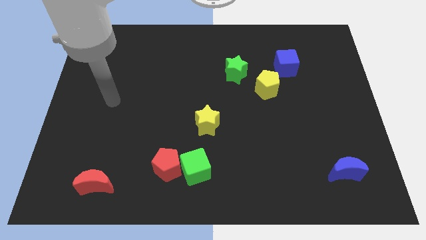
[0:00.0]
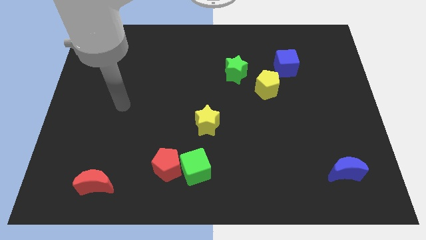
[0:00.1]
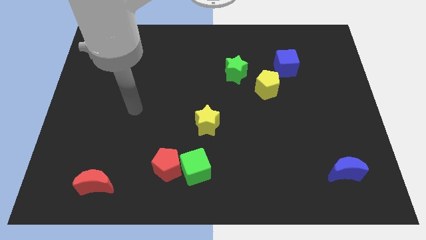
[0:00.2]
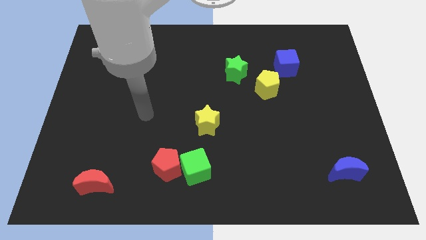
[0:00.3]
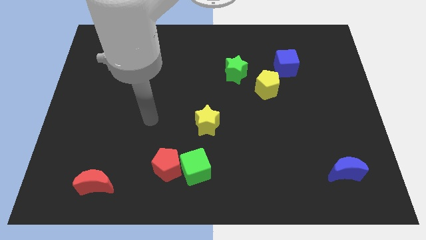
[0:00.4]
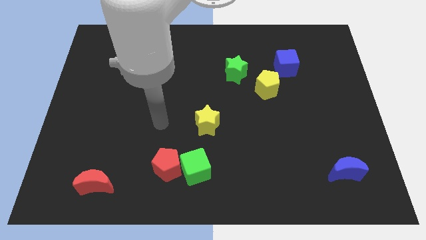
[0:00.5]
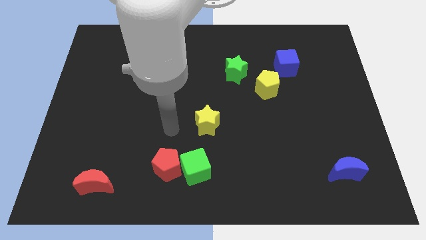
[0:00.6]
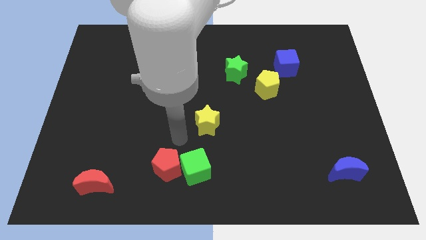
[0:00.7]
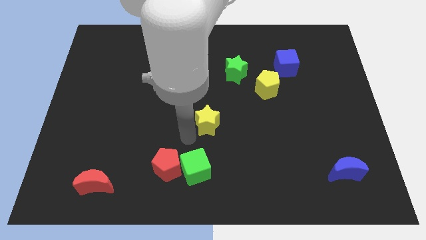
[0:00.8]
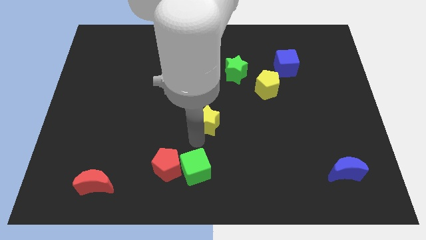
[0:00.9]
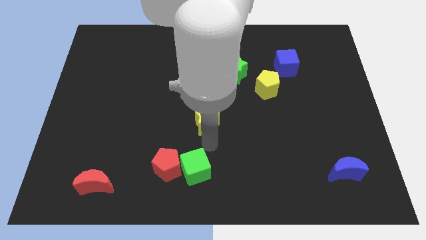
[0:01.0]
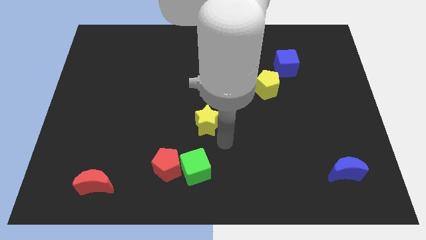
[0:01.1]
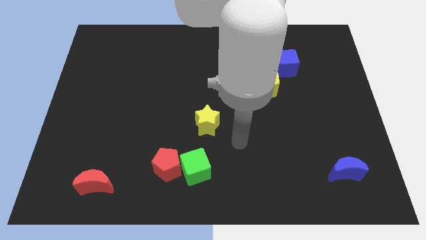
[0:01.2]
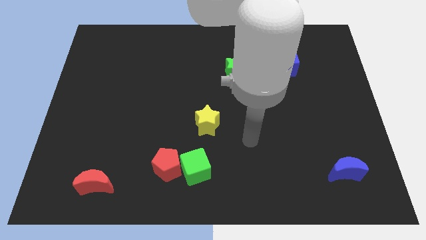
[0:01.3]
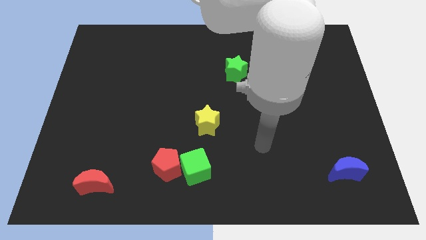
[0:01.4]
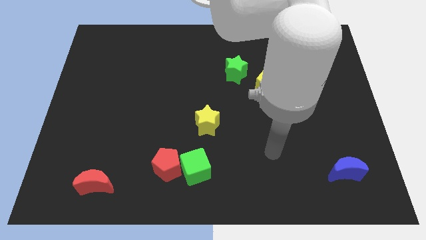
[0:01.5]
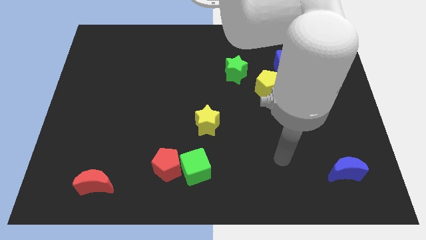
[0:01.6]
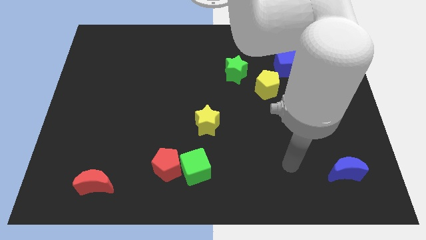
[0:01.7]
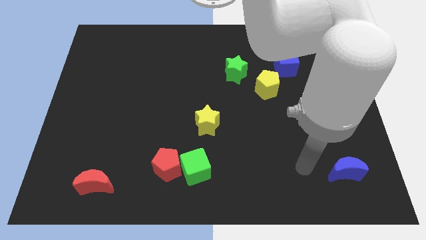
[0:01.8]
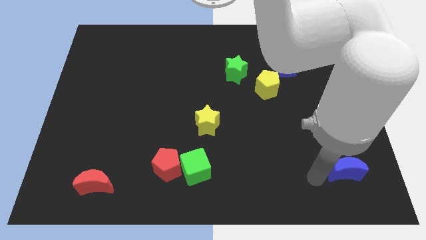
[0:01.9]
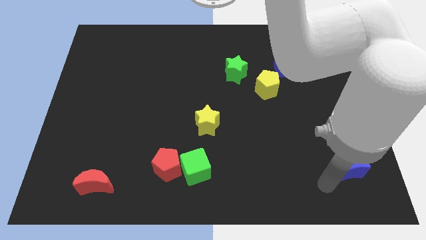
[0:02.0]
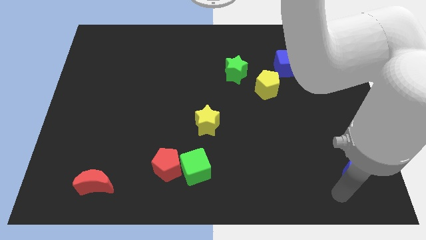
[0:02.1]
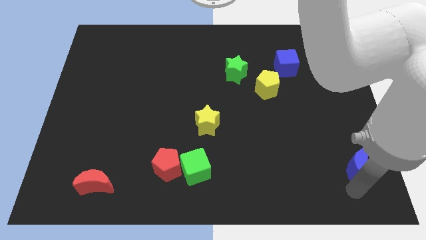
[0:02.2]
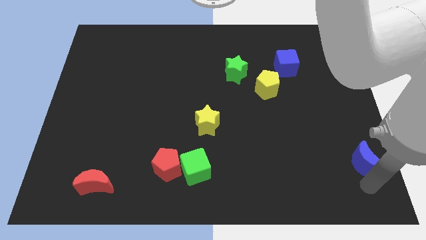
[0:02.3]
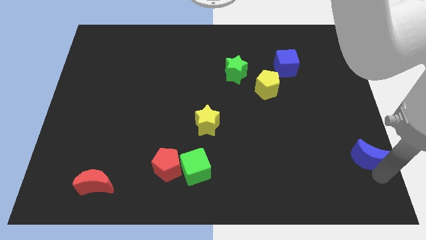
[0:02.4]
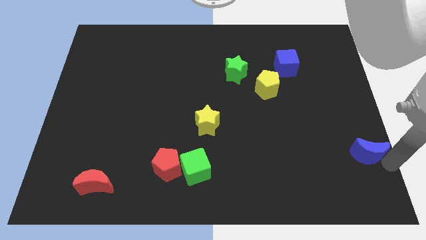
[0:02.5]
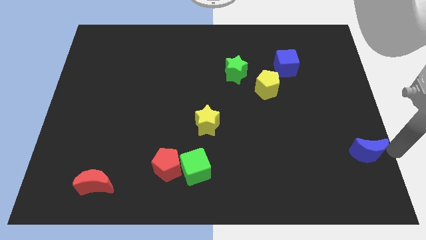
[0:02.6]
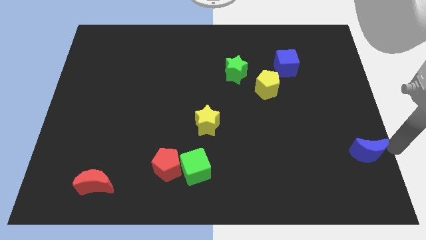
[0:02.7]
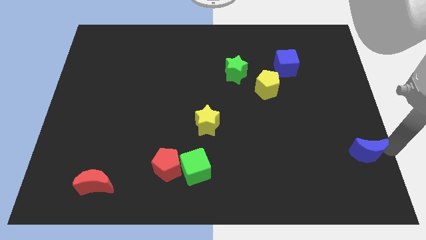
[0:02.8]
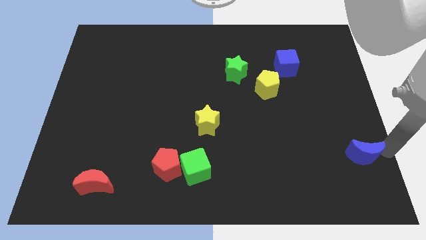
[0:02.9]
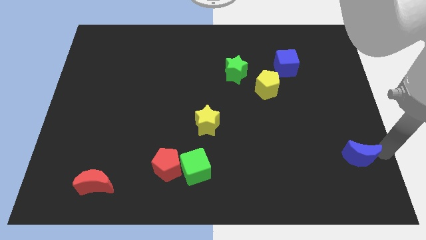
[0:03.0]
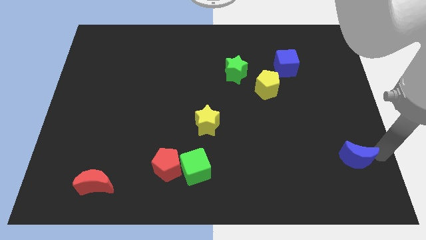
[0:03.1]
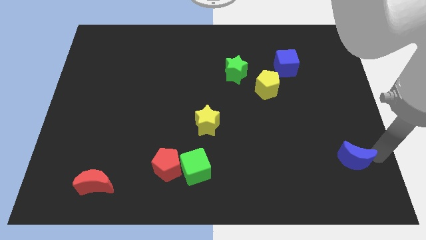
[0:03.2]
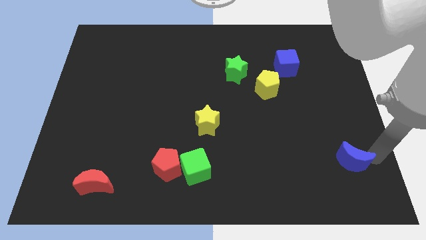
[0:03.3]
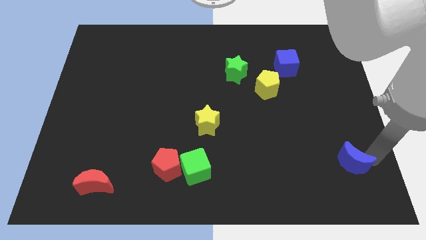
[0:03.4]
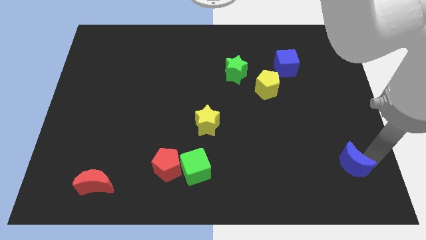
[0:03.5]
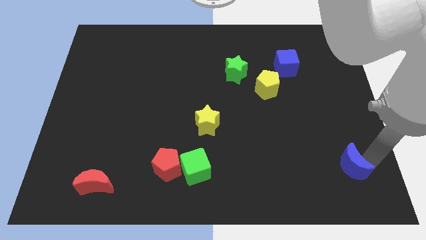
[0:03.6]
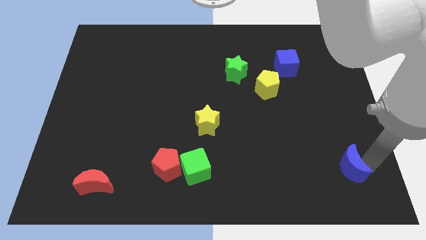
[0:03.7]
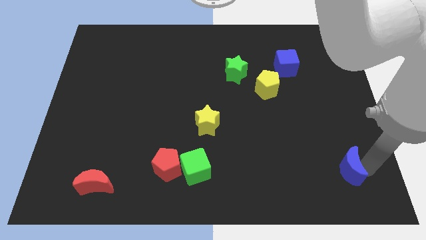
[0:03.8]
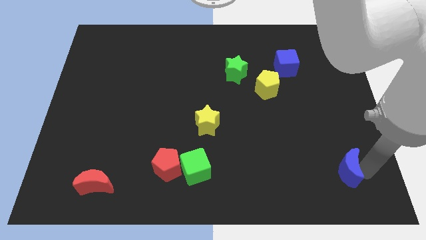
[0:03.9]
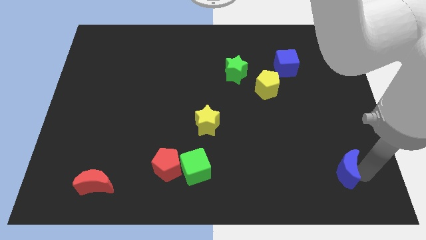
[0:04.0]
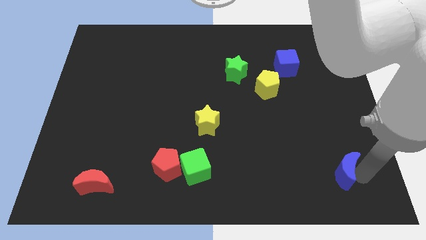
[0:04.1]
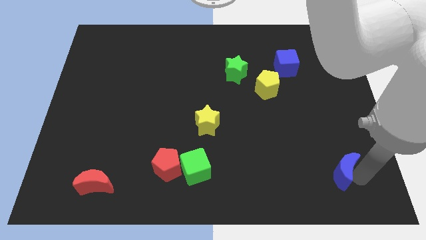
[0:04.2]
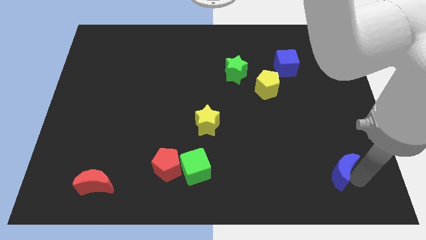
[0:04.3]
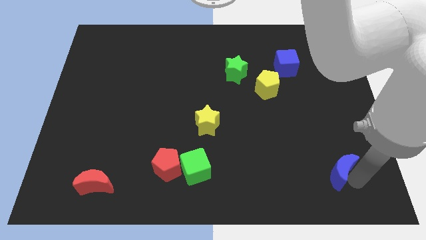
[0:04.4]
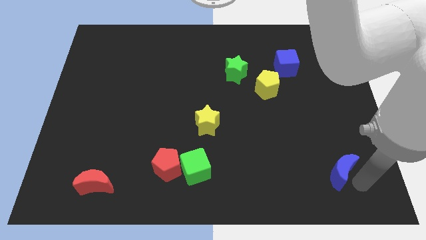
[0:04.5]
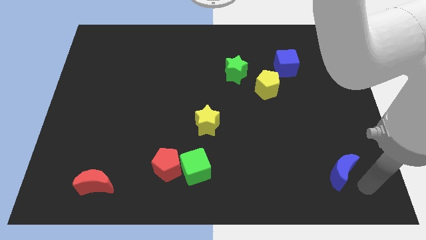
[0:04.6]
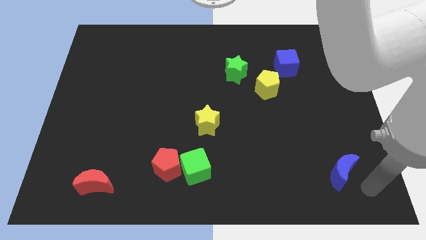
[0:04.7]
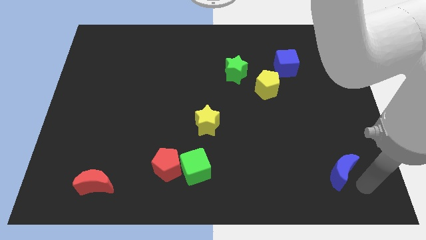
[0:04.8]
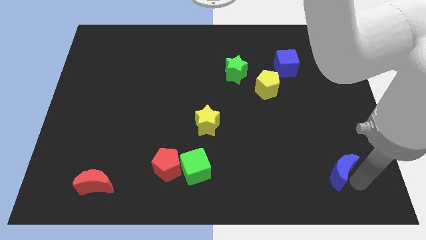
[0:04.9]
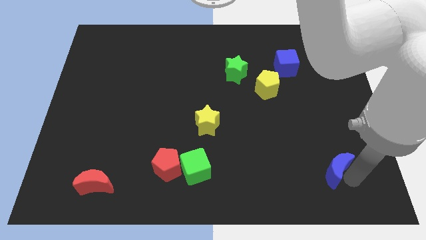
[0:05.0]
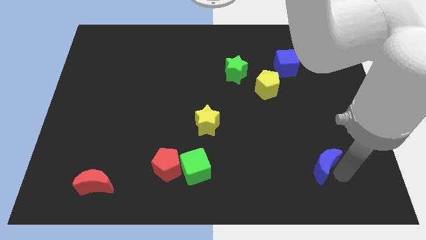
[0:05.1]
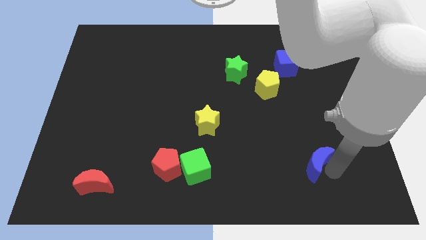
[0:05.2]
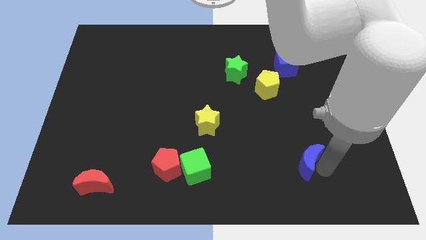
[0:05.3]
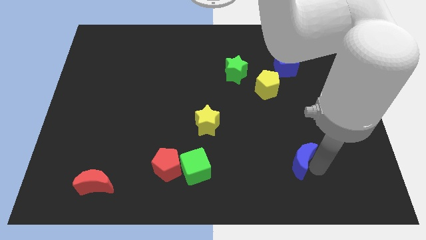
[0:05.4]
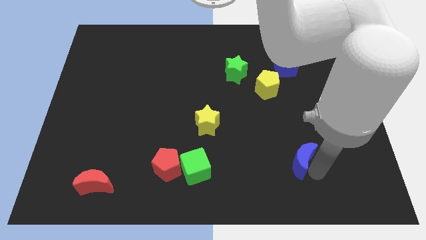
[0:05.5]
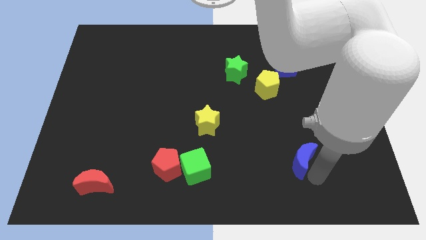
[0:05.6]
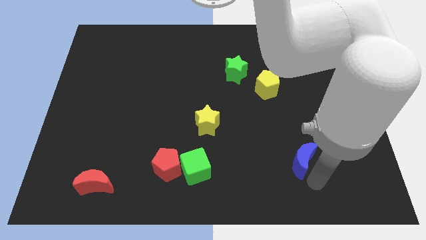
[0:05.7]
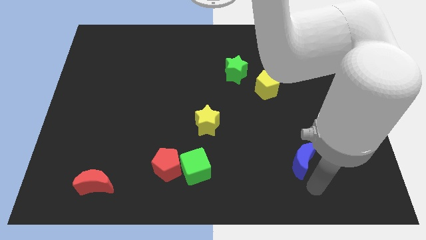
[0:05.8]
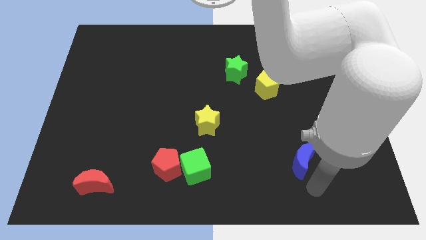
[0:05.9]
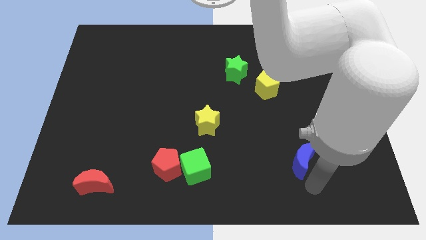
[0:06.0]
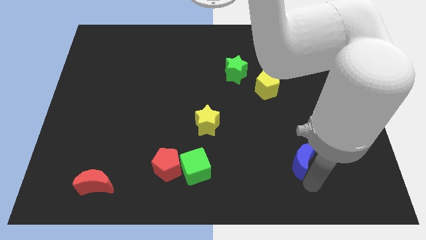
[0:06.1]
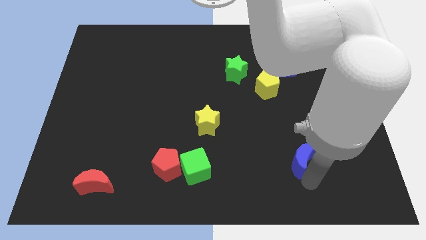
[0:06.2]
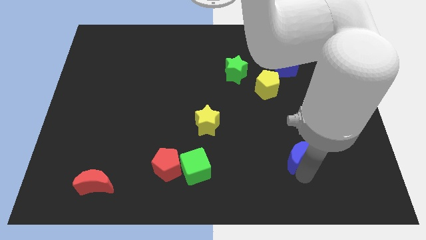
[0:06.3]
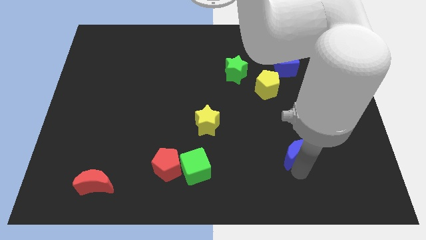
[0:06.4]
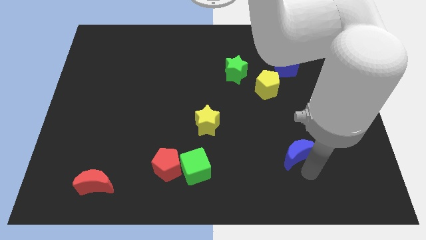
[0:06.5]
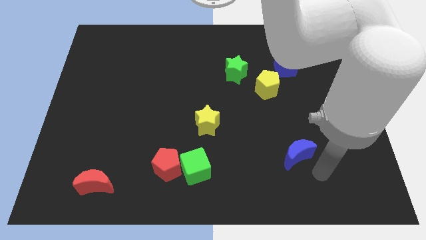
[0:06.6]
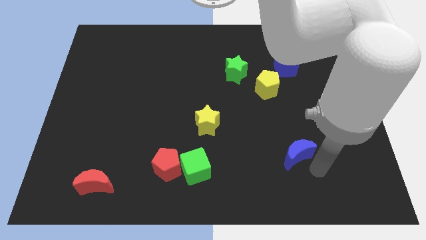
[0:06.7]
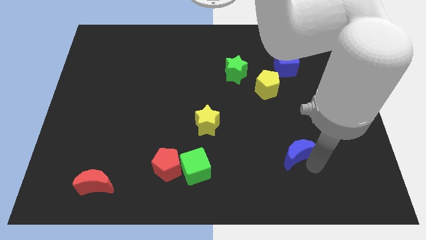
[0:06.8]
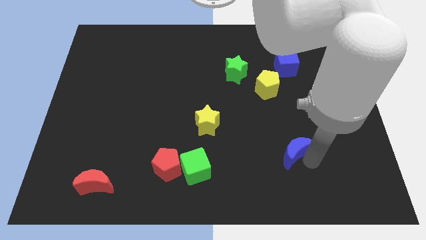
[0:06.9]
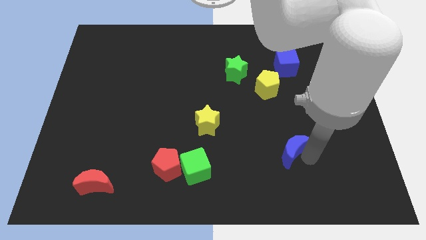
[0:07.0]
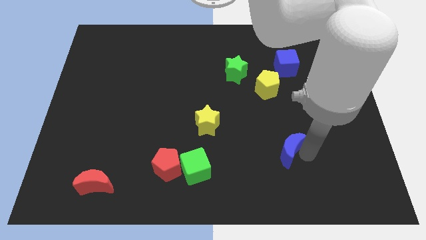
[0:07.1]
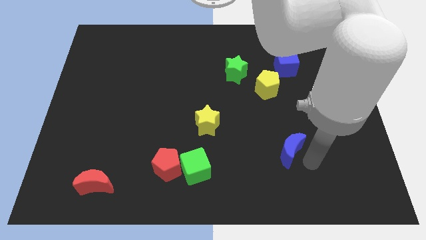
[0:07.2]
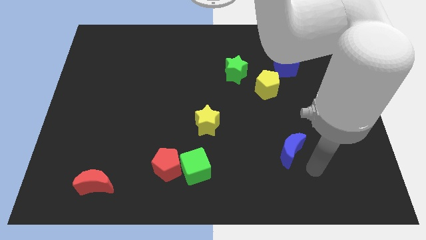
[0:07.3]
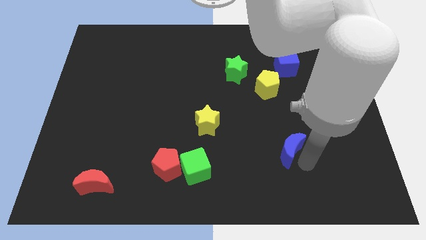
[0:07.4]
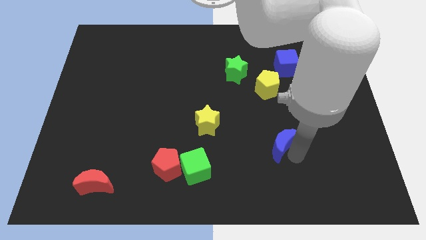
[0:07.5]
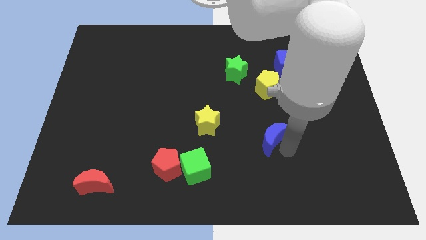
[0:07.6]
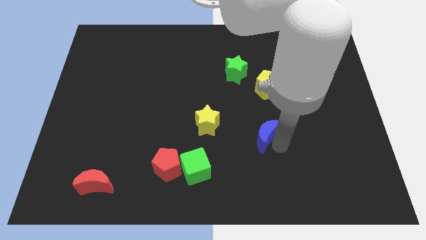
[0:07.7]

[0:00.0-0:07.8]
push the blue moon right of the yellow star
